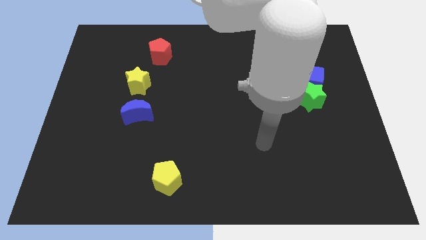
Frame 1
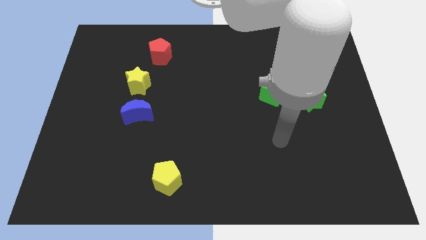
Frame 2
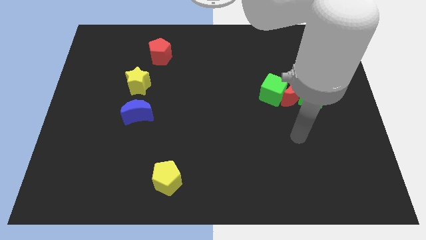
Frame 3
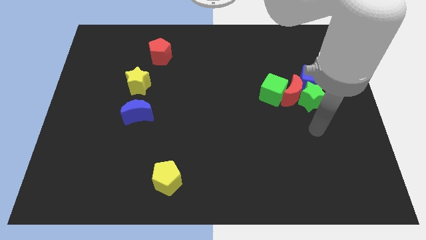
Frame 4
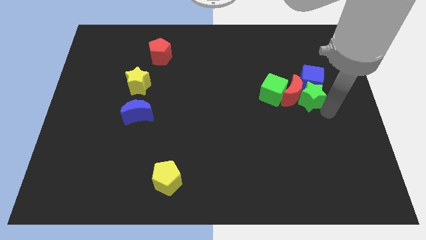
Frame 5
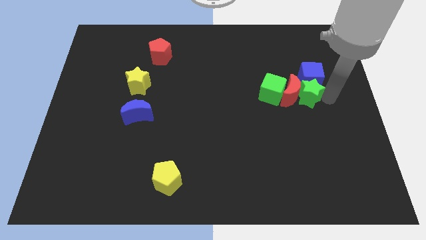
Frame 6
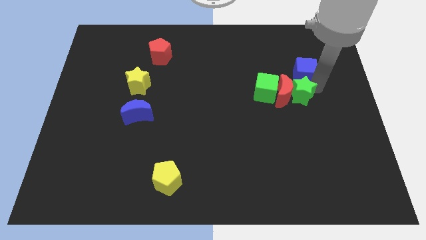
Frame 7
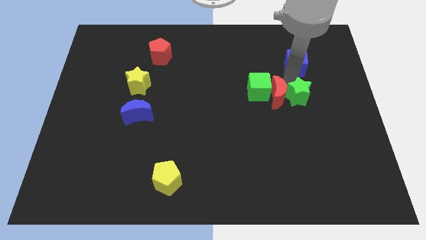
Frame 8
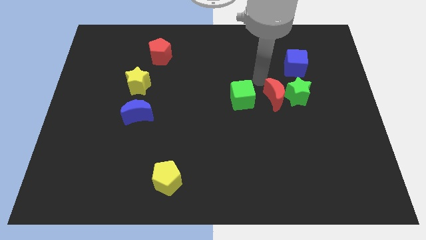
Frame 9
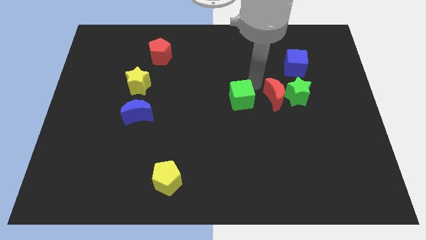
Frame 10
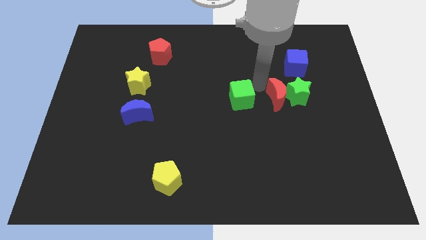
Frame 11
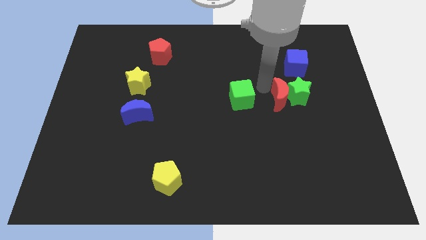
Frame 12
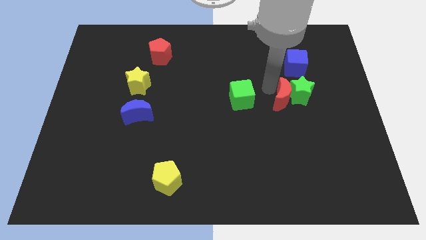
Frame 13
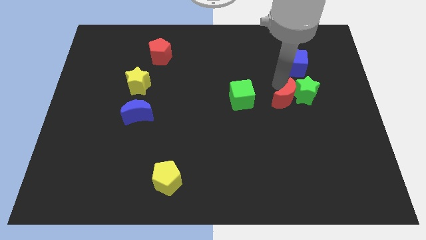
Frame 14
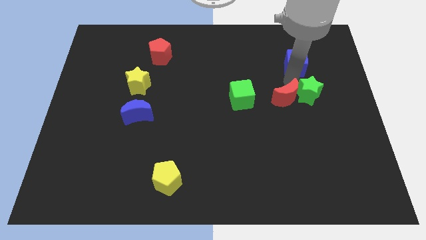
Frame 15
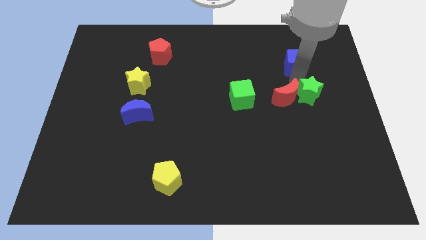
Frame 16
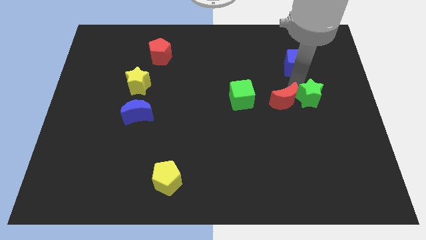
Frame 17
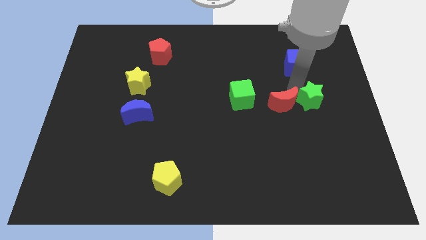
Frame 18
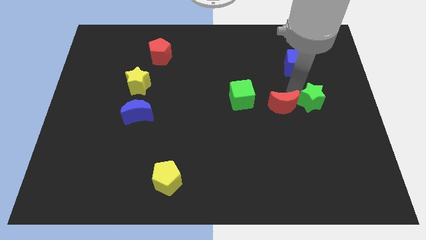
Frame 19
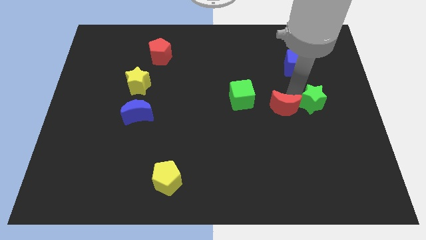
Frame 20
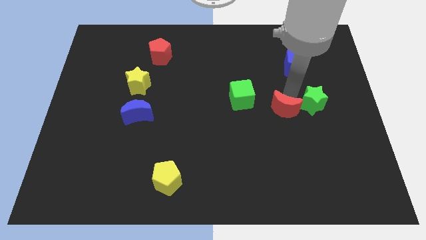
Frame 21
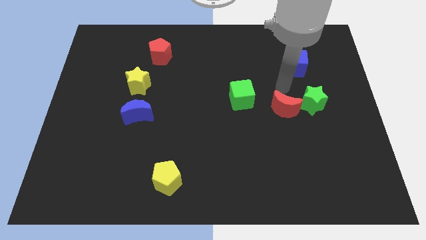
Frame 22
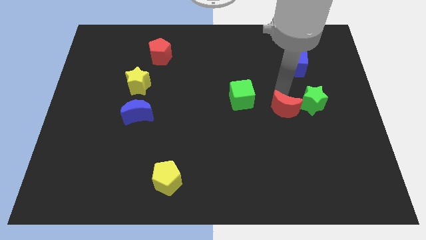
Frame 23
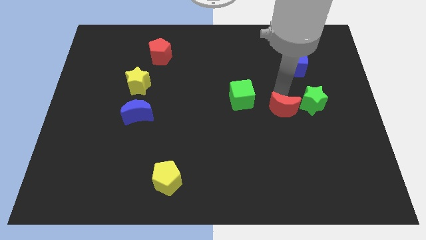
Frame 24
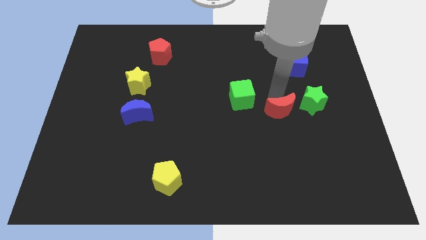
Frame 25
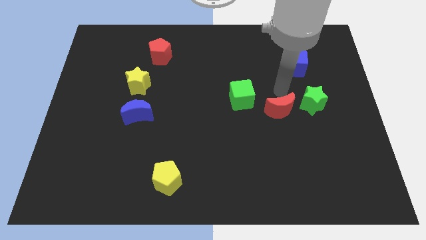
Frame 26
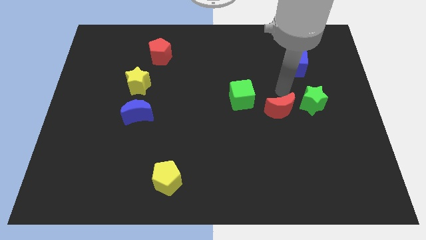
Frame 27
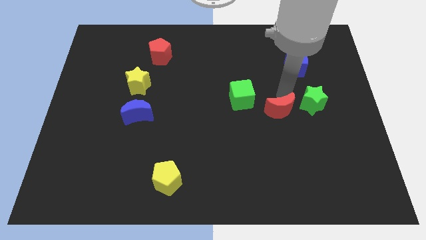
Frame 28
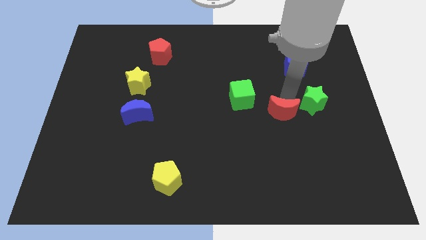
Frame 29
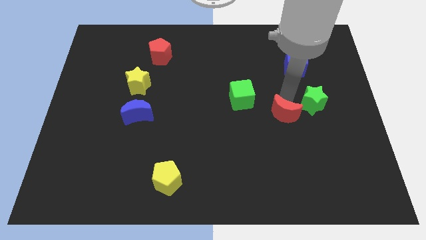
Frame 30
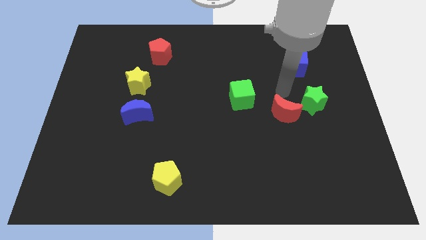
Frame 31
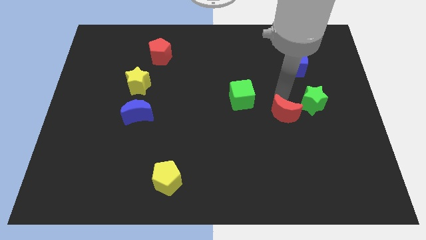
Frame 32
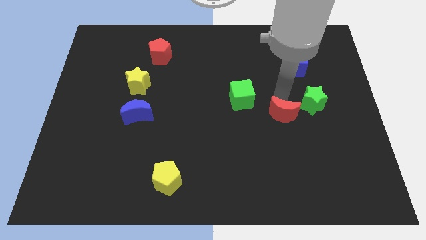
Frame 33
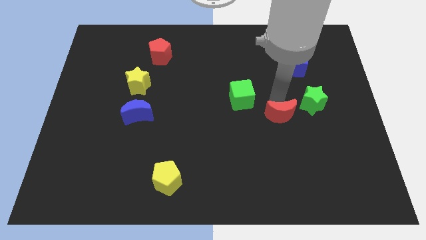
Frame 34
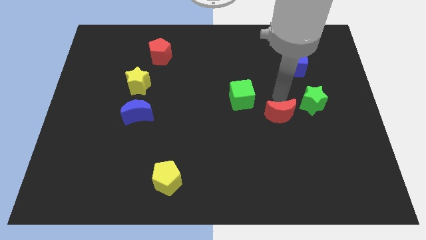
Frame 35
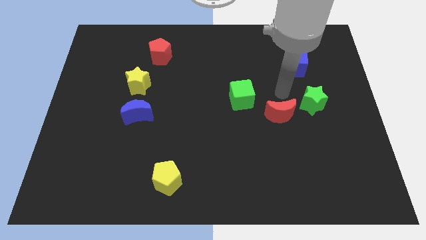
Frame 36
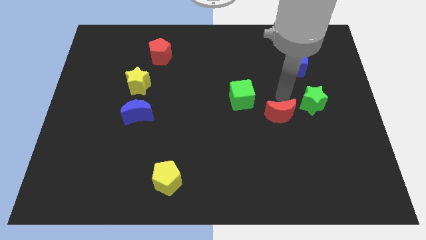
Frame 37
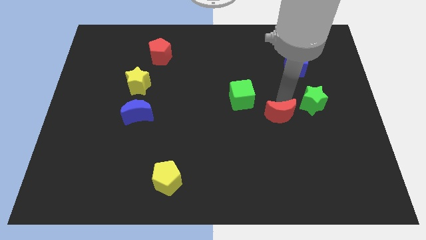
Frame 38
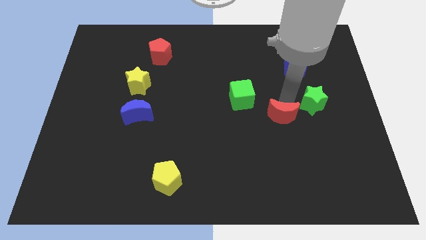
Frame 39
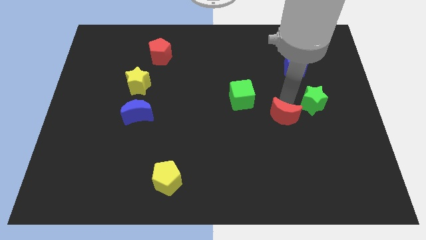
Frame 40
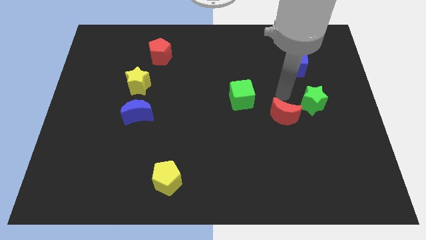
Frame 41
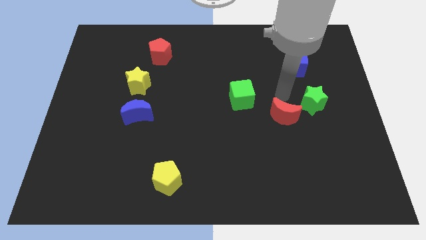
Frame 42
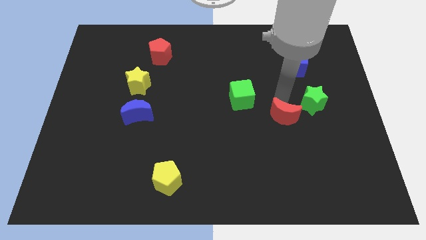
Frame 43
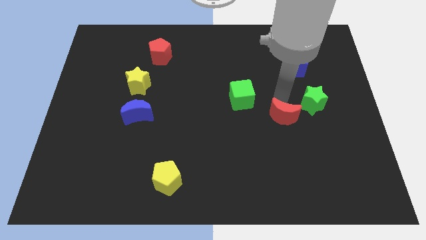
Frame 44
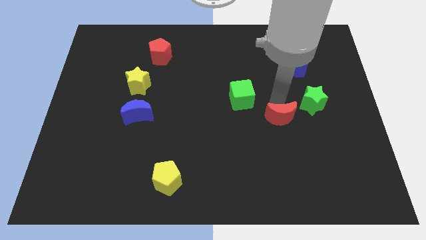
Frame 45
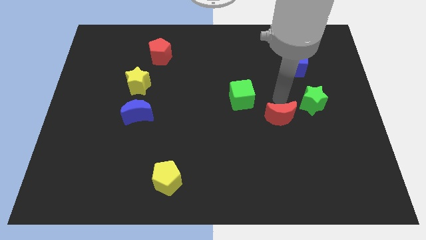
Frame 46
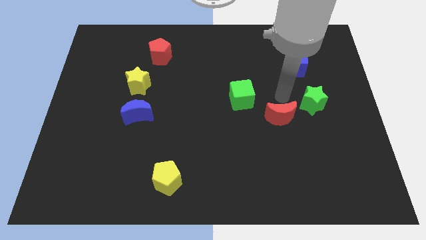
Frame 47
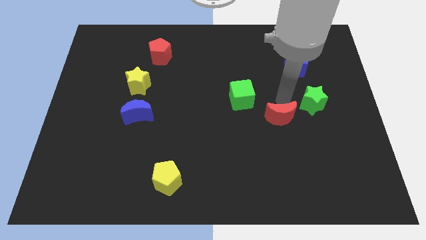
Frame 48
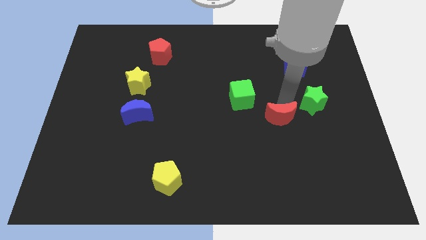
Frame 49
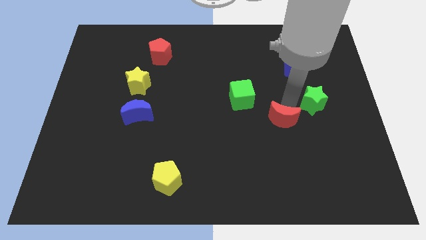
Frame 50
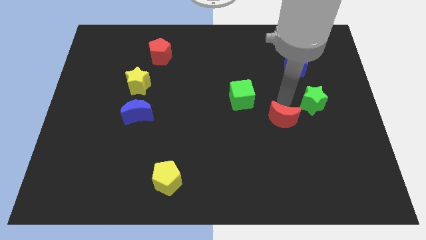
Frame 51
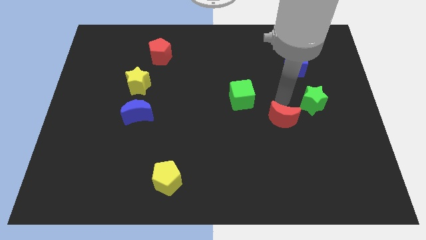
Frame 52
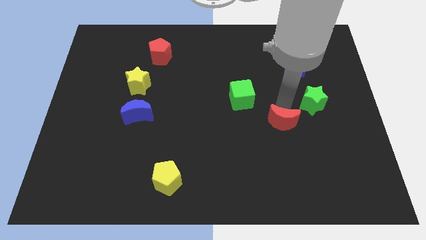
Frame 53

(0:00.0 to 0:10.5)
pull the red moon apart from the green star, green cube, and blue cube

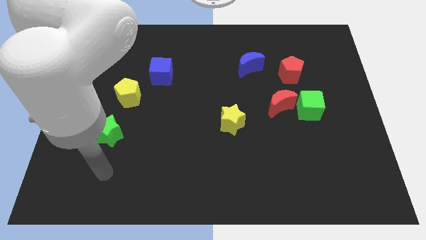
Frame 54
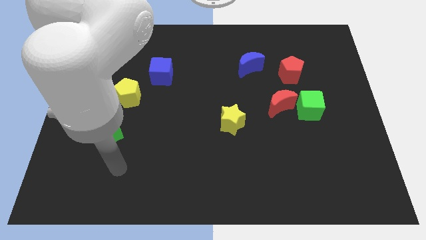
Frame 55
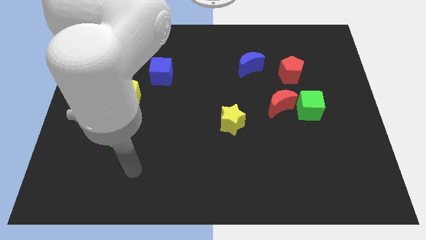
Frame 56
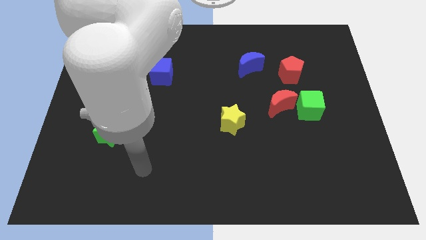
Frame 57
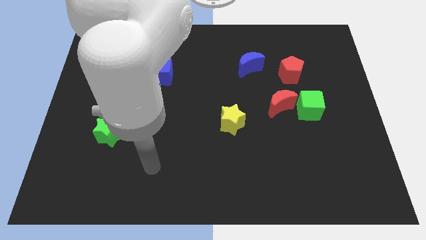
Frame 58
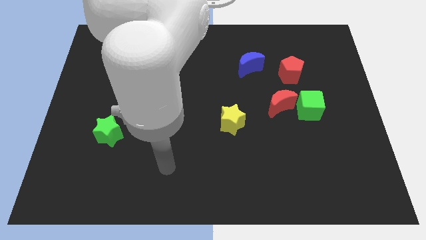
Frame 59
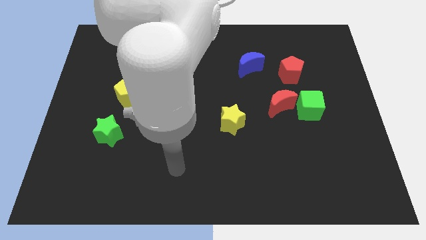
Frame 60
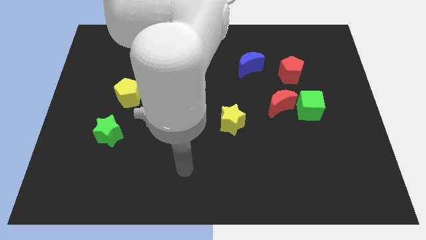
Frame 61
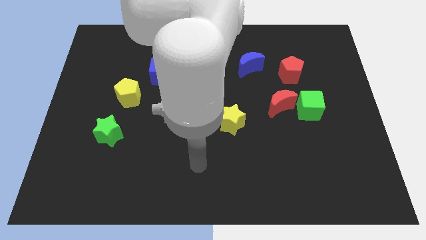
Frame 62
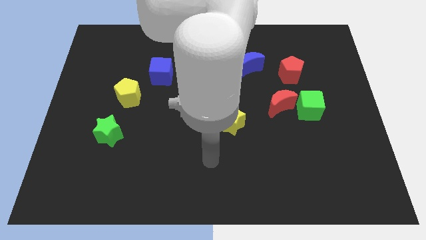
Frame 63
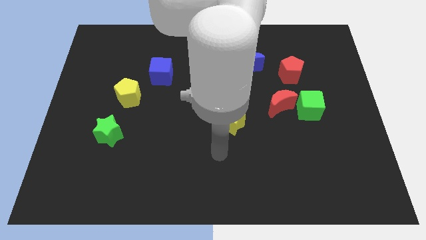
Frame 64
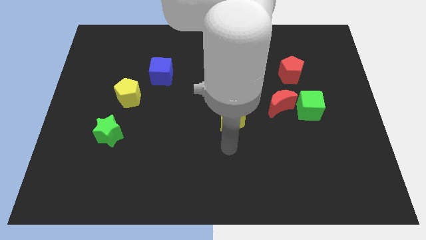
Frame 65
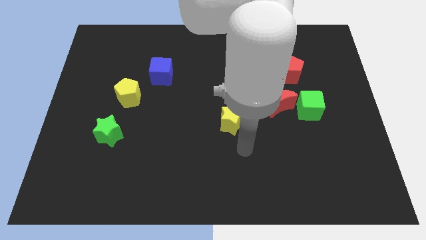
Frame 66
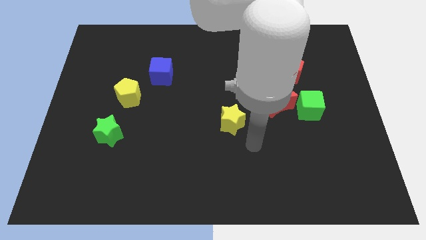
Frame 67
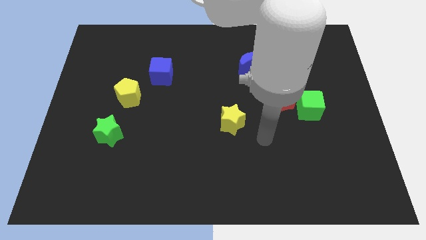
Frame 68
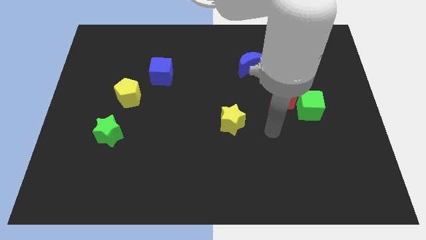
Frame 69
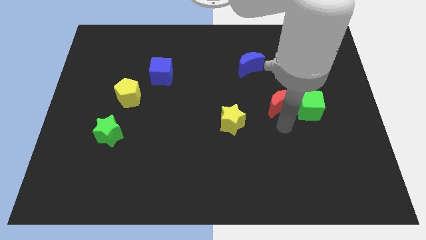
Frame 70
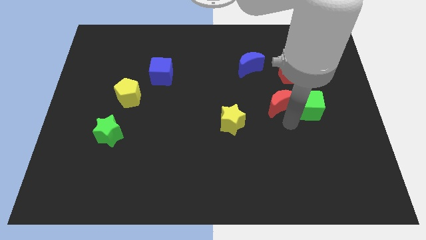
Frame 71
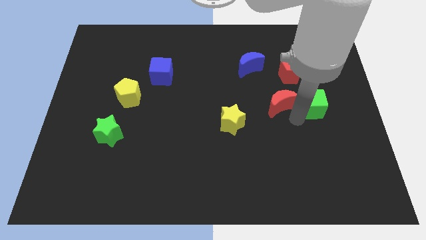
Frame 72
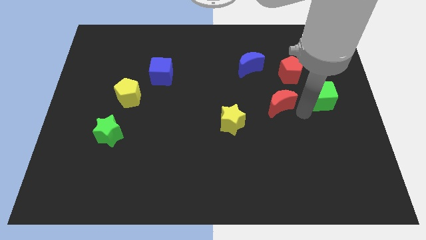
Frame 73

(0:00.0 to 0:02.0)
separate the red moon from the green cube

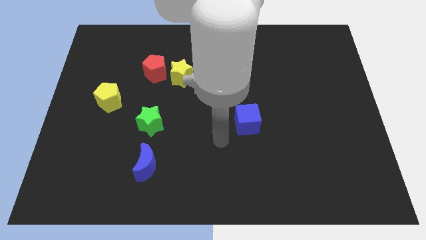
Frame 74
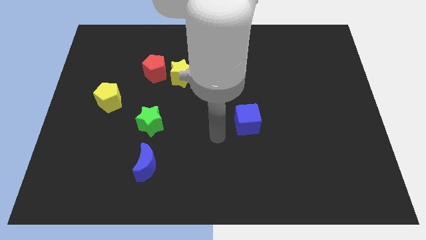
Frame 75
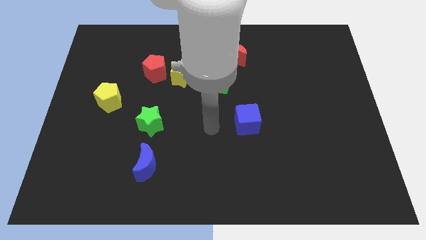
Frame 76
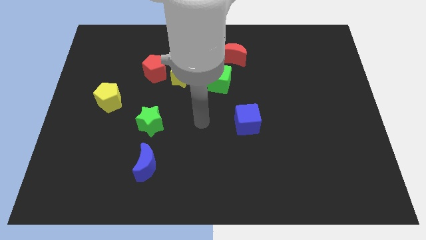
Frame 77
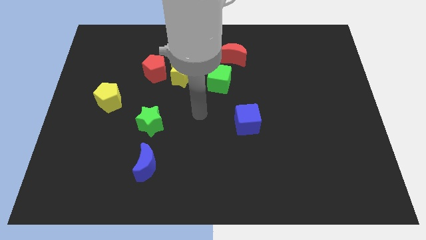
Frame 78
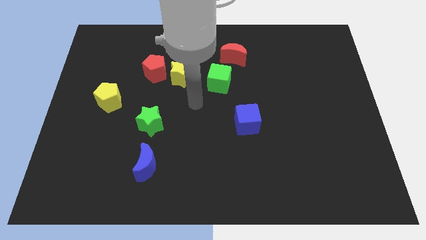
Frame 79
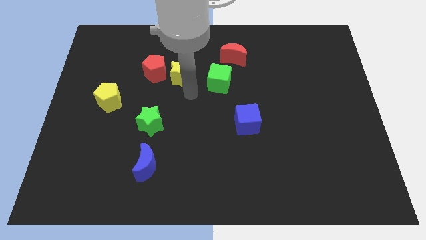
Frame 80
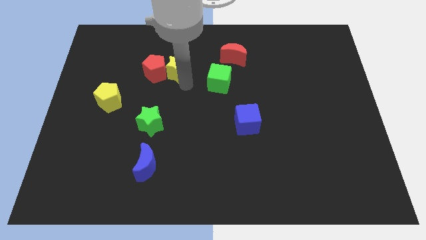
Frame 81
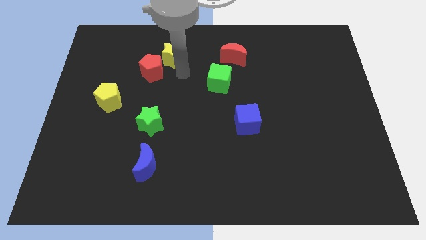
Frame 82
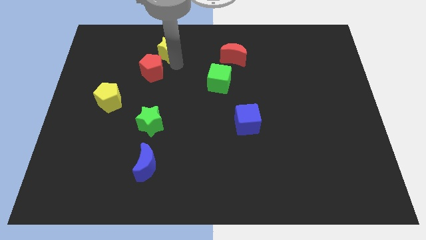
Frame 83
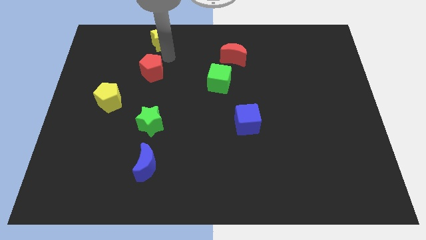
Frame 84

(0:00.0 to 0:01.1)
separate the red pentagon from the yellow star

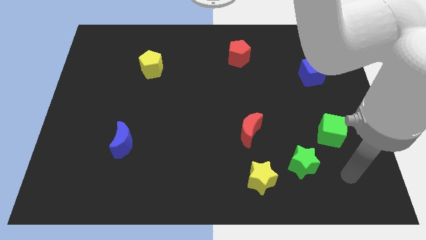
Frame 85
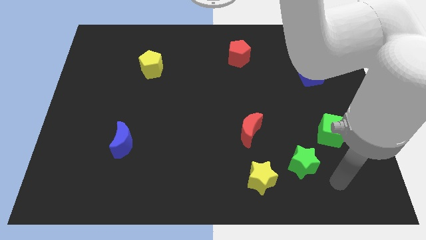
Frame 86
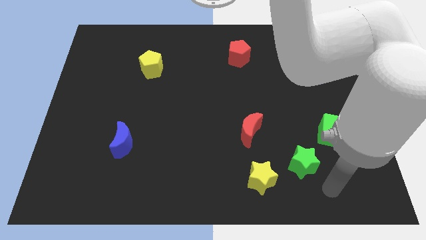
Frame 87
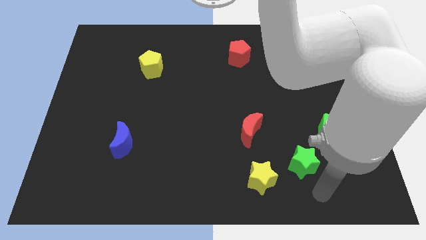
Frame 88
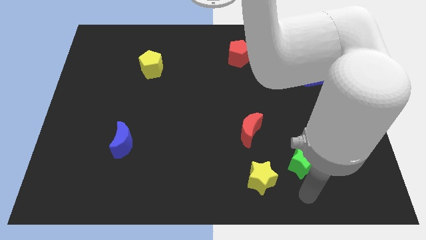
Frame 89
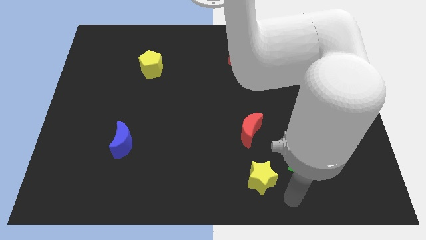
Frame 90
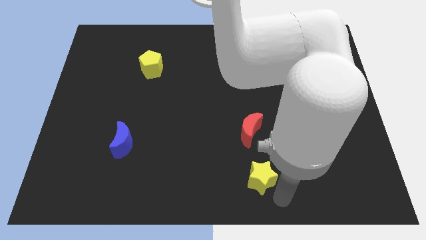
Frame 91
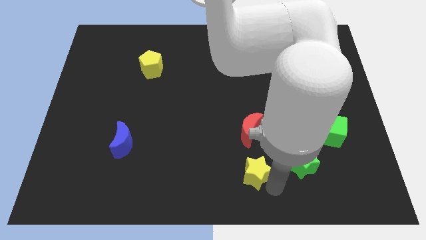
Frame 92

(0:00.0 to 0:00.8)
move the green star away from the yellow star

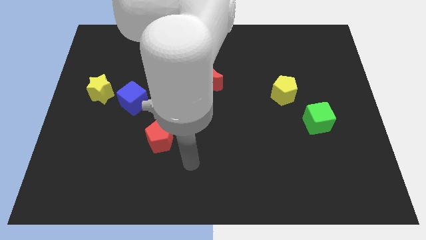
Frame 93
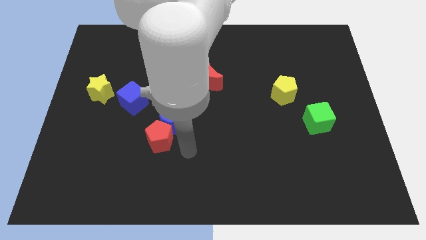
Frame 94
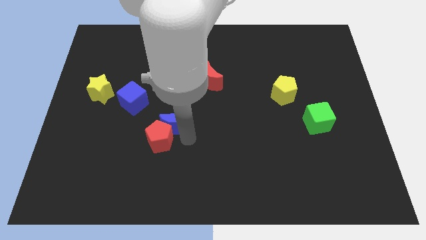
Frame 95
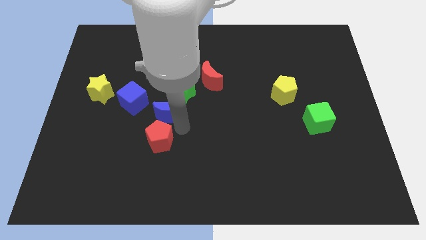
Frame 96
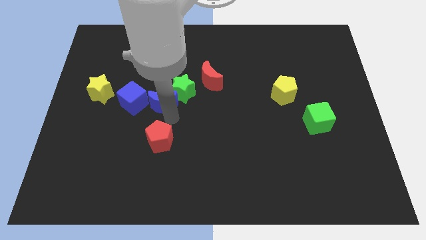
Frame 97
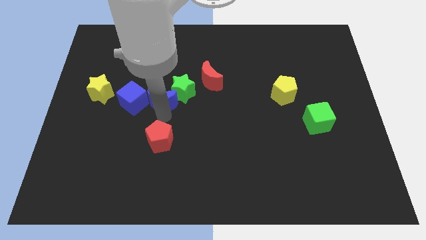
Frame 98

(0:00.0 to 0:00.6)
pull the red pentagon apart from the blue moon
